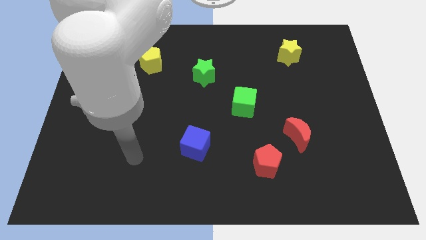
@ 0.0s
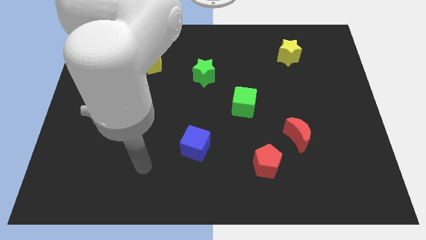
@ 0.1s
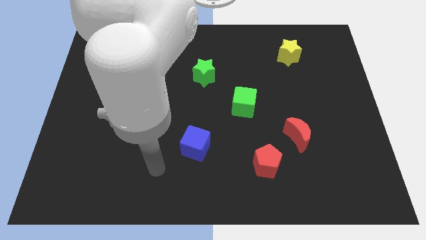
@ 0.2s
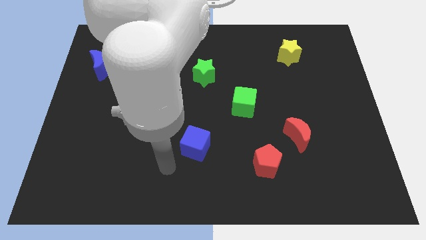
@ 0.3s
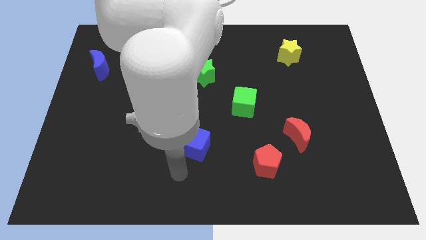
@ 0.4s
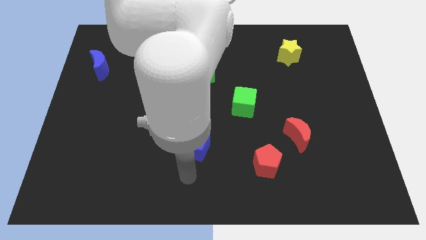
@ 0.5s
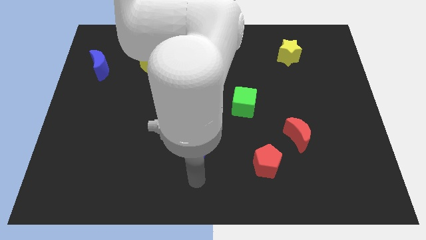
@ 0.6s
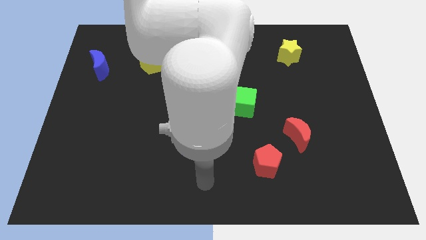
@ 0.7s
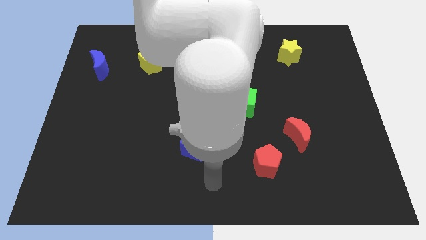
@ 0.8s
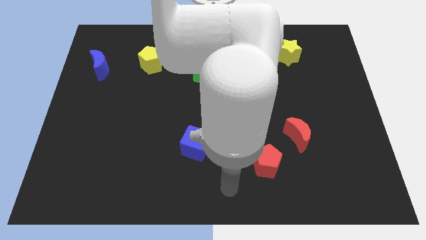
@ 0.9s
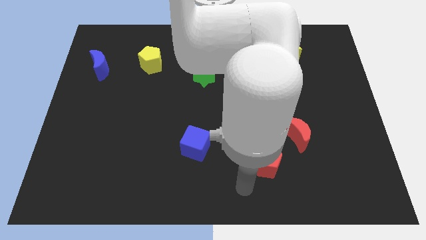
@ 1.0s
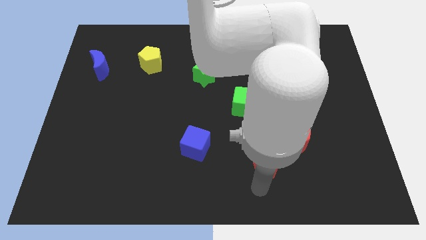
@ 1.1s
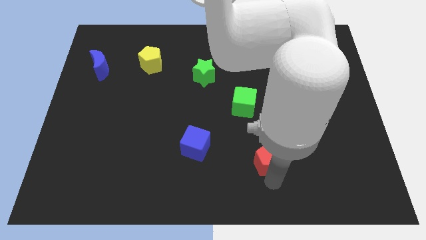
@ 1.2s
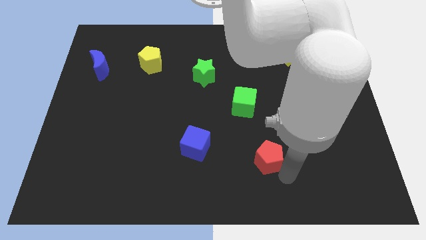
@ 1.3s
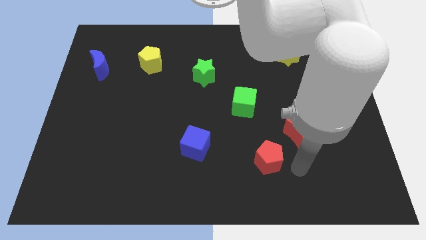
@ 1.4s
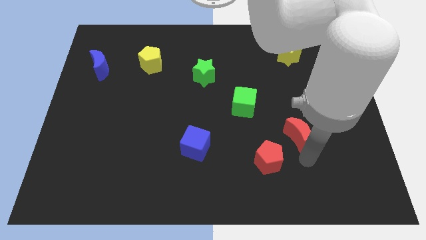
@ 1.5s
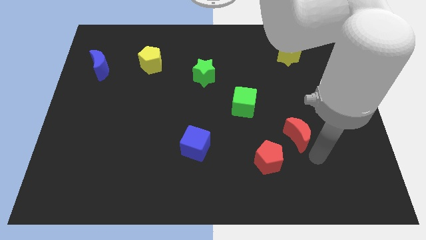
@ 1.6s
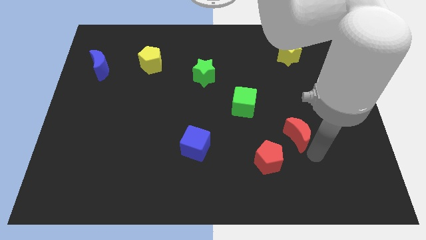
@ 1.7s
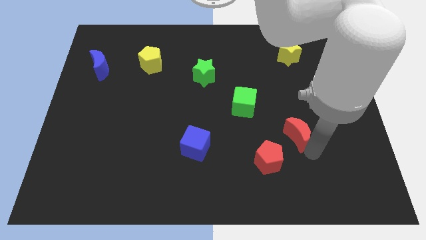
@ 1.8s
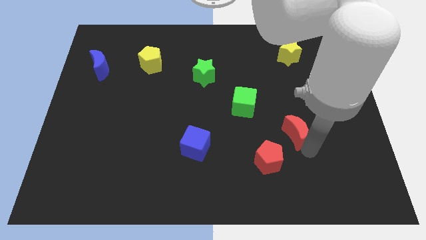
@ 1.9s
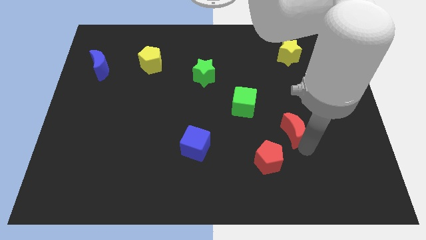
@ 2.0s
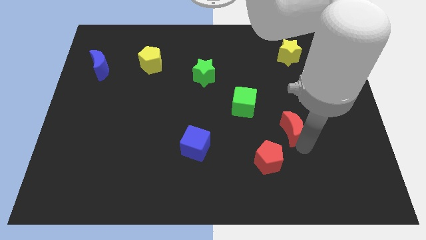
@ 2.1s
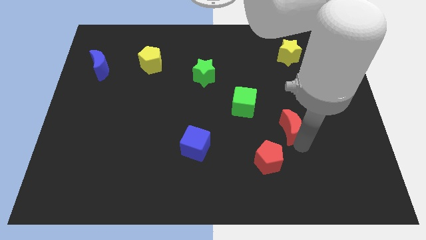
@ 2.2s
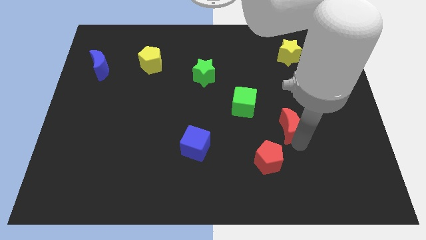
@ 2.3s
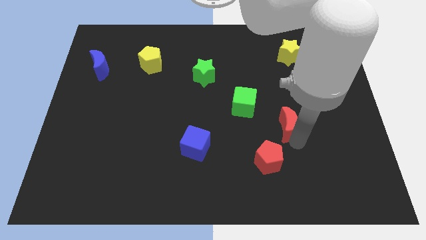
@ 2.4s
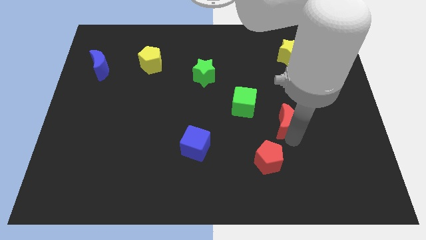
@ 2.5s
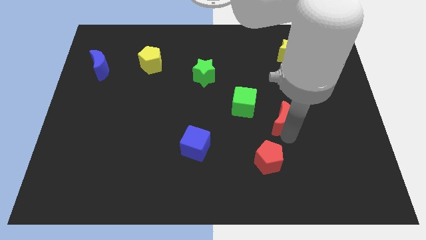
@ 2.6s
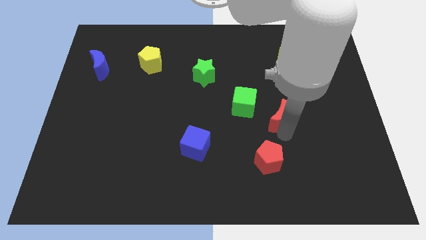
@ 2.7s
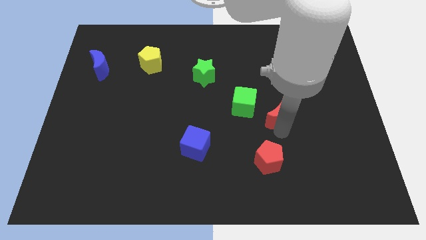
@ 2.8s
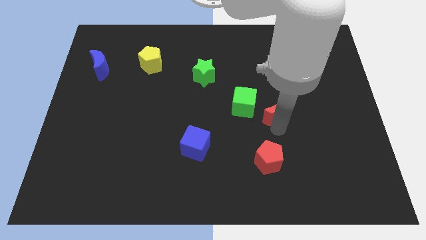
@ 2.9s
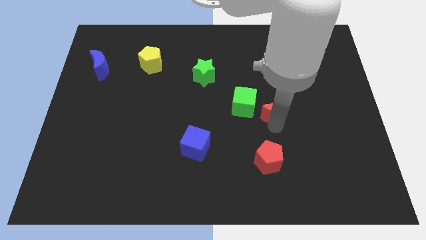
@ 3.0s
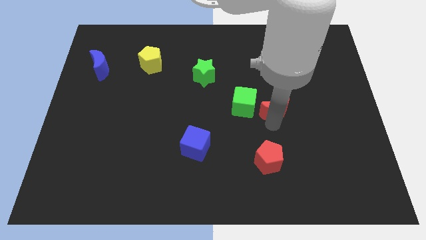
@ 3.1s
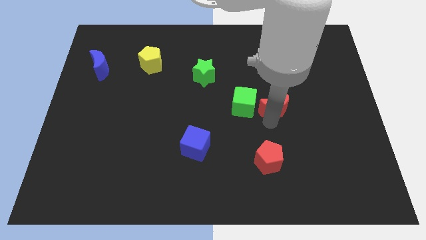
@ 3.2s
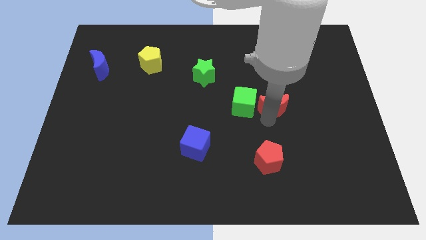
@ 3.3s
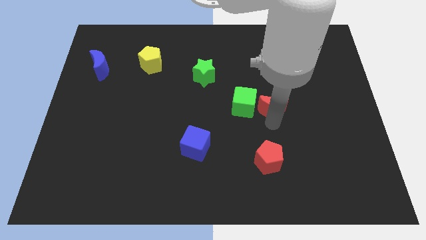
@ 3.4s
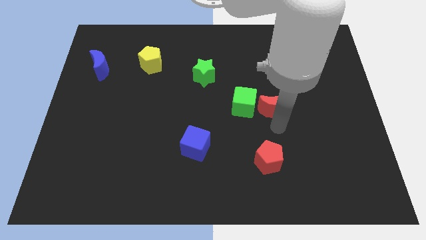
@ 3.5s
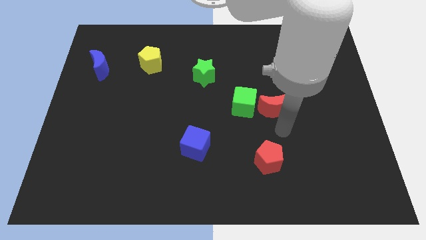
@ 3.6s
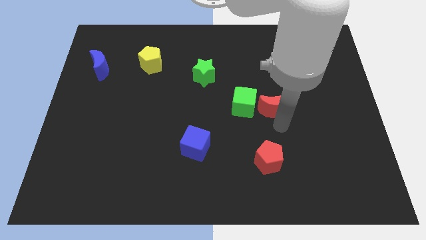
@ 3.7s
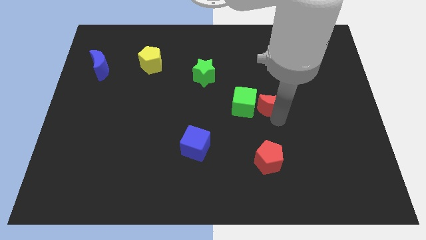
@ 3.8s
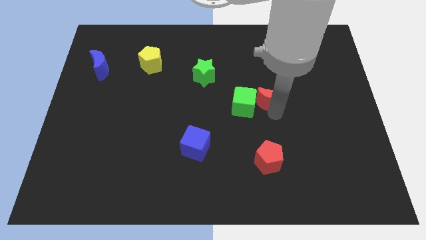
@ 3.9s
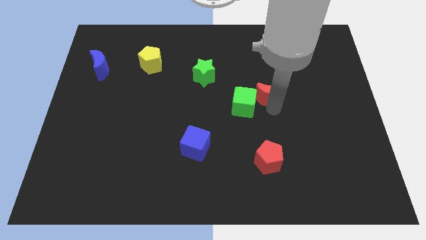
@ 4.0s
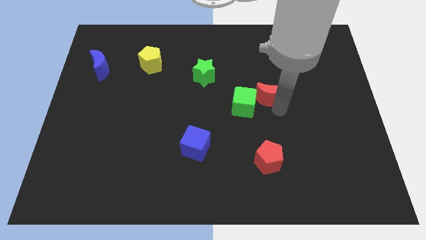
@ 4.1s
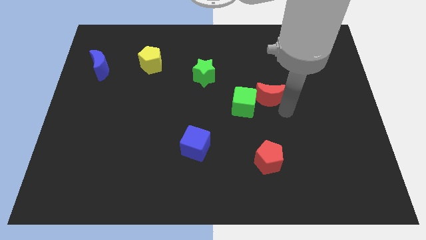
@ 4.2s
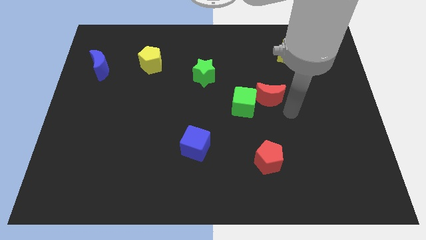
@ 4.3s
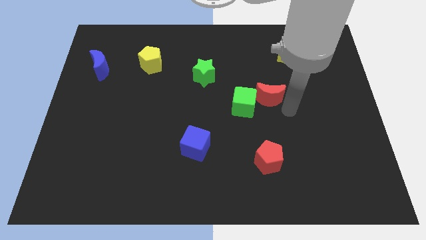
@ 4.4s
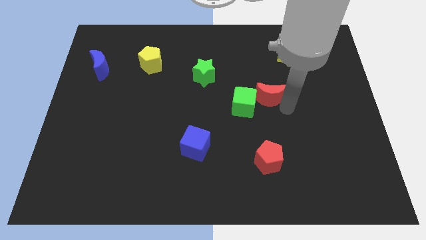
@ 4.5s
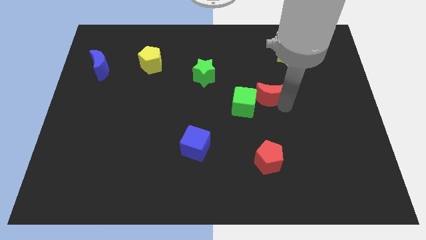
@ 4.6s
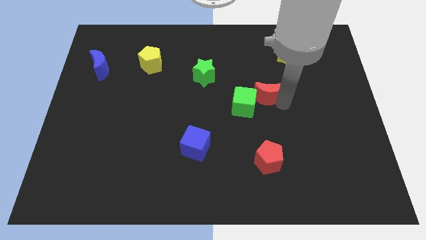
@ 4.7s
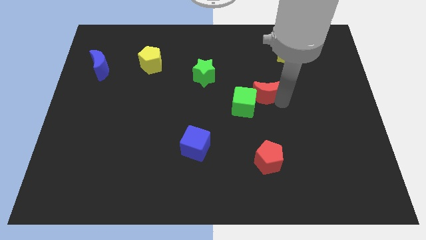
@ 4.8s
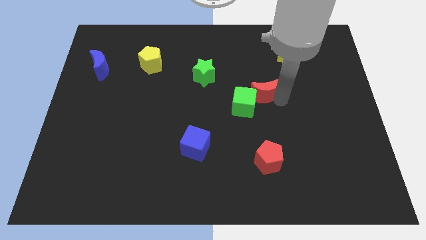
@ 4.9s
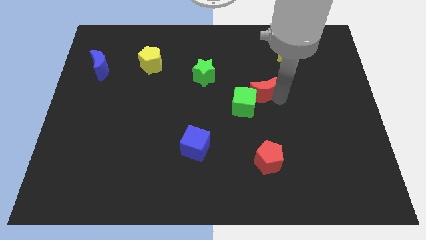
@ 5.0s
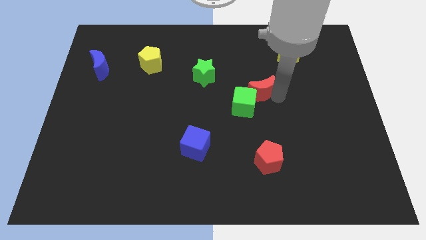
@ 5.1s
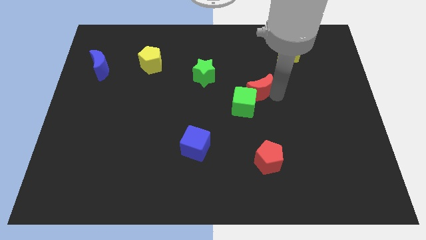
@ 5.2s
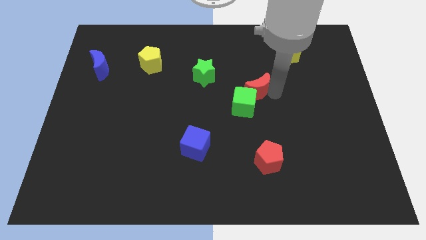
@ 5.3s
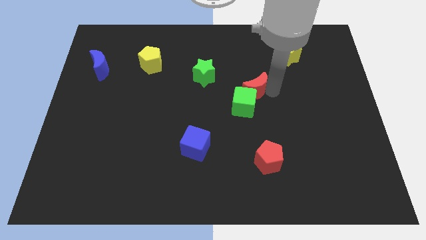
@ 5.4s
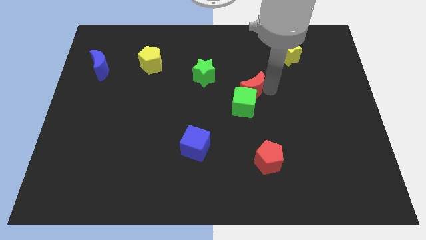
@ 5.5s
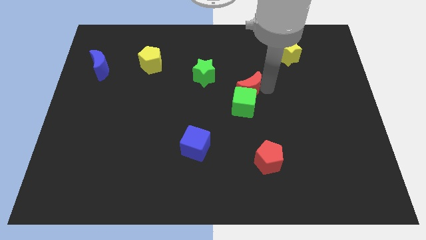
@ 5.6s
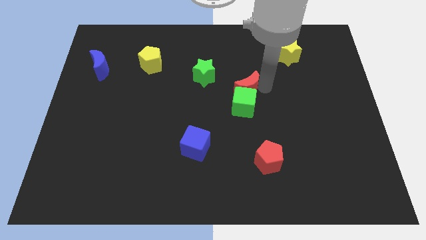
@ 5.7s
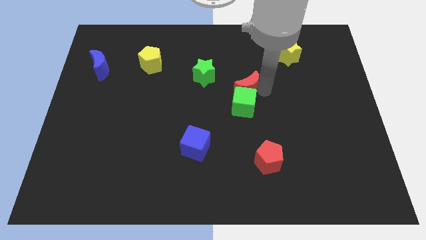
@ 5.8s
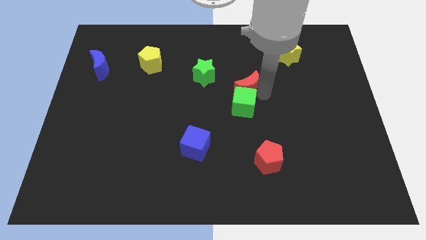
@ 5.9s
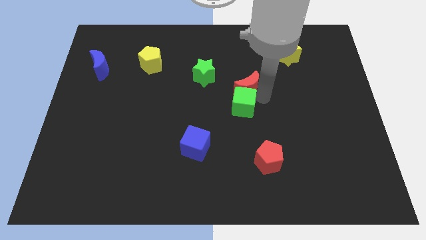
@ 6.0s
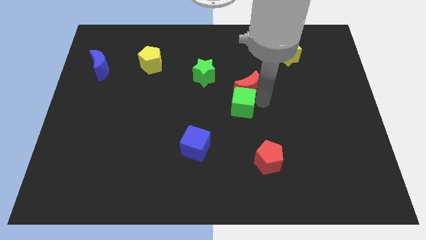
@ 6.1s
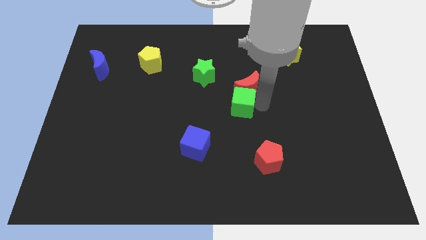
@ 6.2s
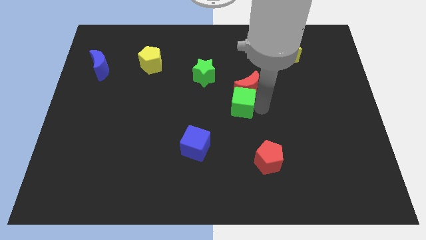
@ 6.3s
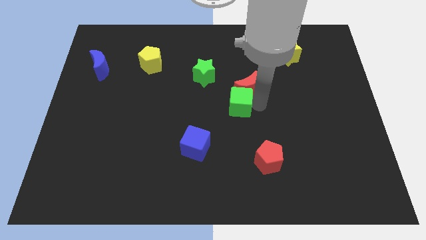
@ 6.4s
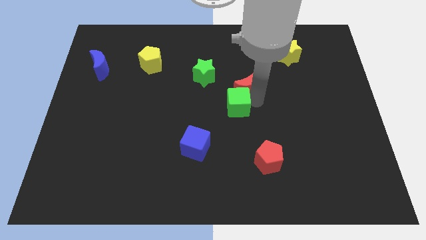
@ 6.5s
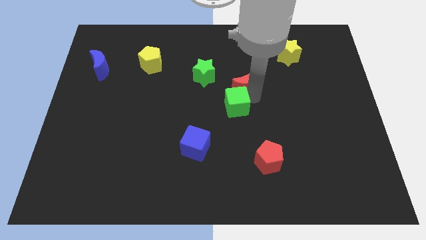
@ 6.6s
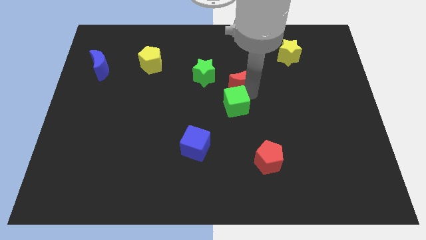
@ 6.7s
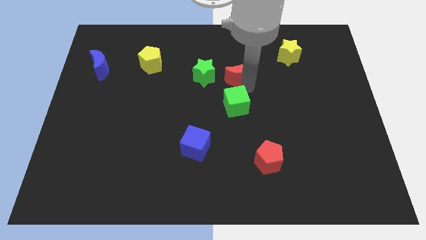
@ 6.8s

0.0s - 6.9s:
push the red moon up and left diagonally

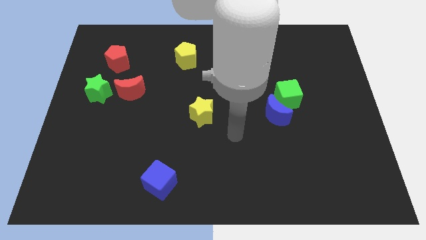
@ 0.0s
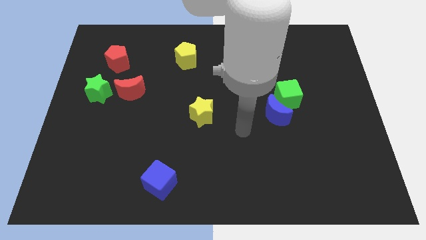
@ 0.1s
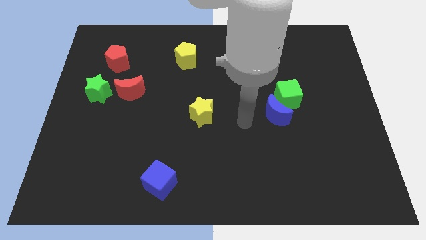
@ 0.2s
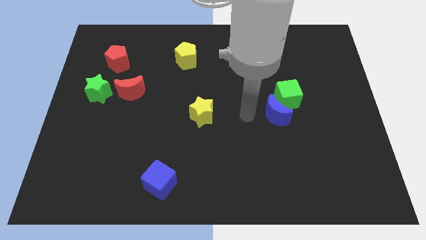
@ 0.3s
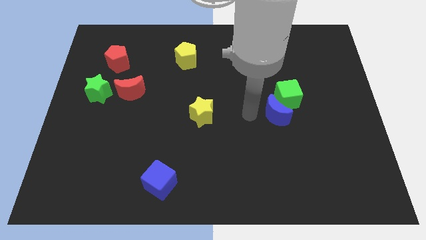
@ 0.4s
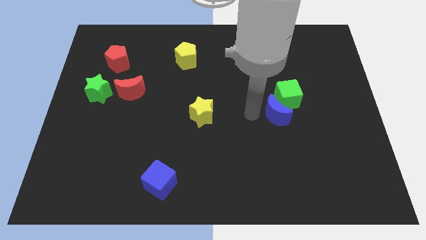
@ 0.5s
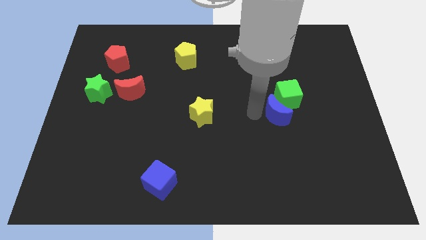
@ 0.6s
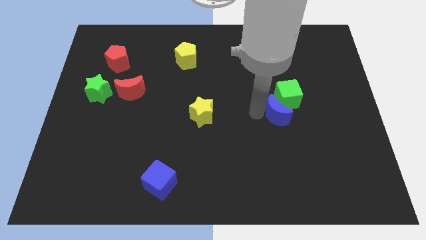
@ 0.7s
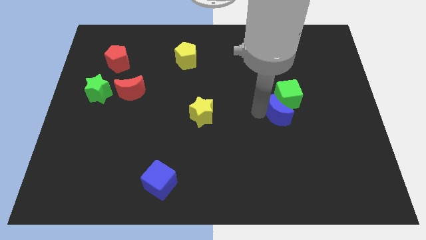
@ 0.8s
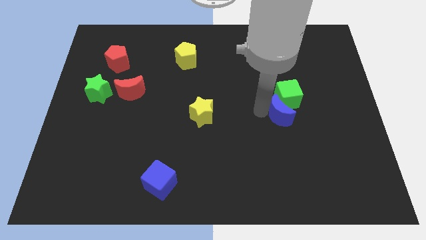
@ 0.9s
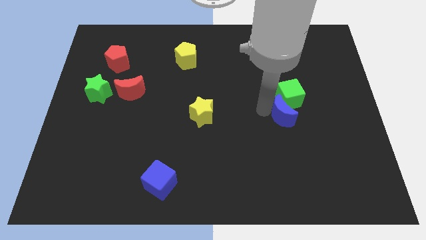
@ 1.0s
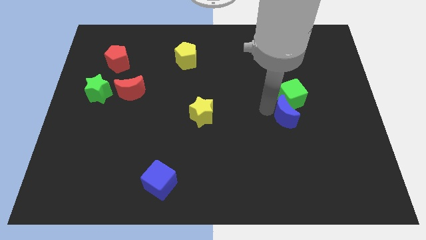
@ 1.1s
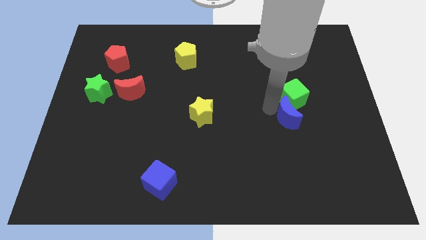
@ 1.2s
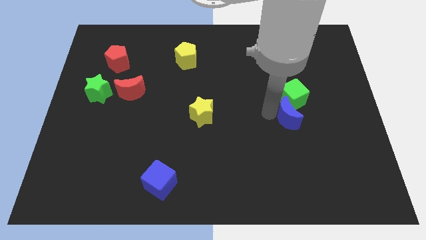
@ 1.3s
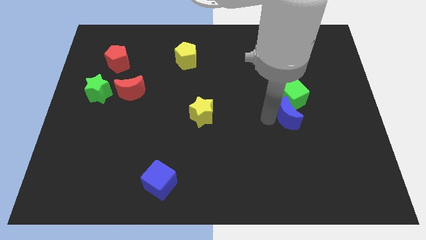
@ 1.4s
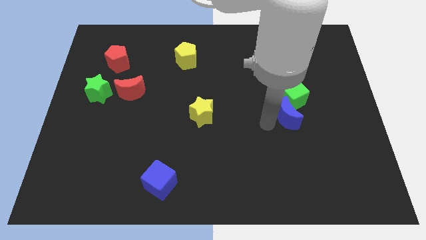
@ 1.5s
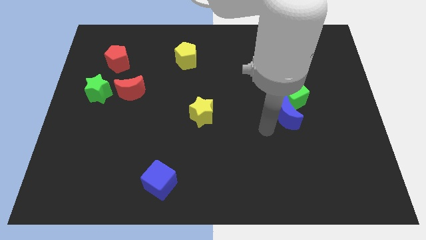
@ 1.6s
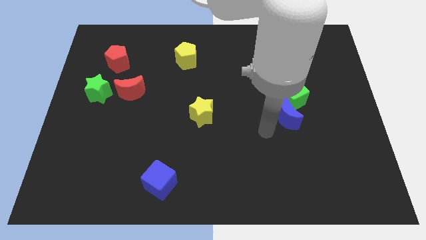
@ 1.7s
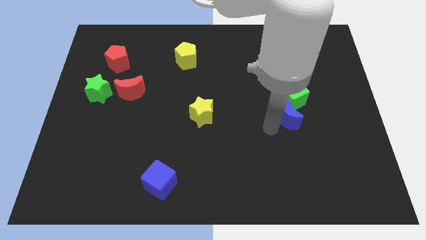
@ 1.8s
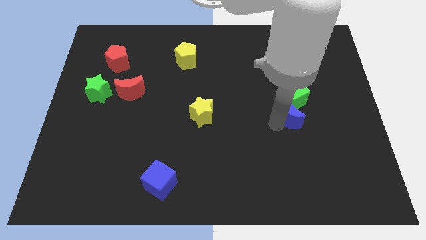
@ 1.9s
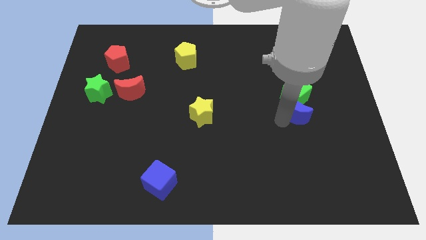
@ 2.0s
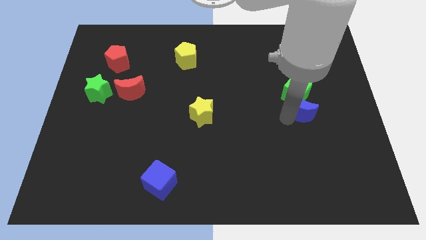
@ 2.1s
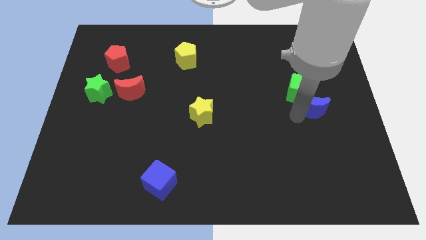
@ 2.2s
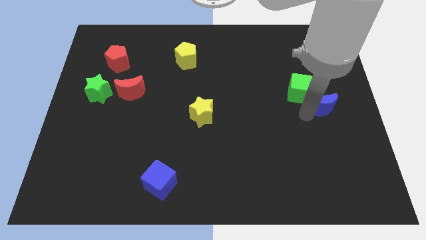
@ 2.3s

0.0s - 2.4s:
slightly slide the blue moon upwards and then right
